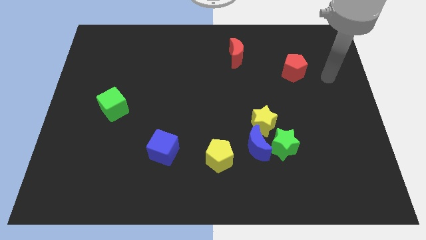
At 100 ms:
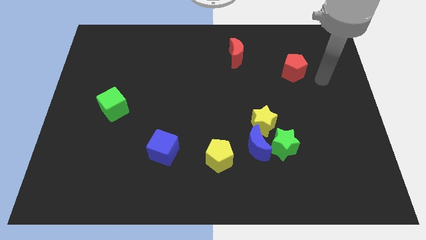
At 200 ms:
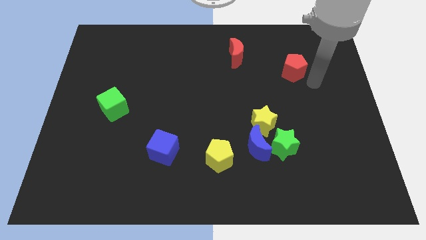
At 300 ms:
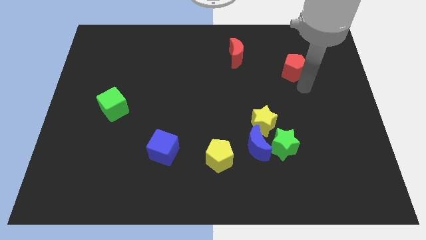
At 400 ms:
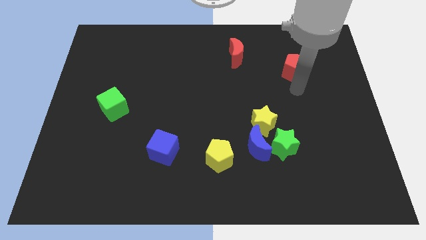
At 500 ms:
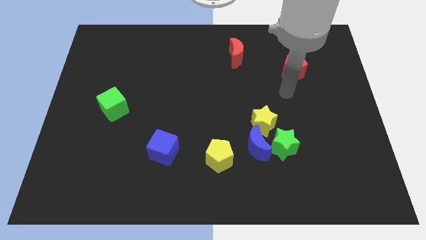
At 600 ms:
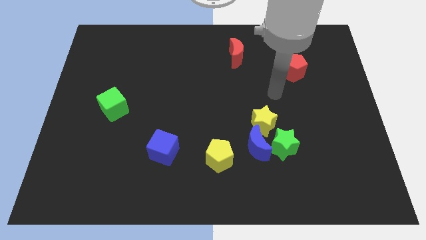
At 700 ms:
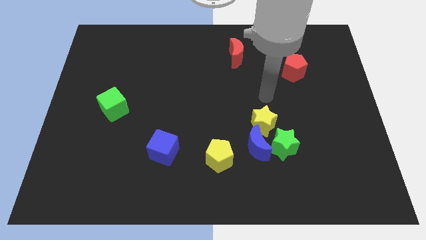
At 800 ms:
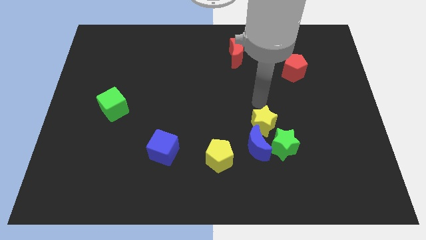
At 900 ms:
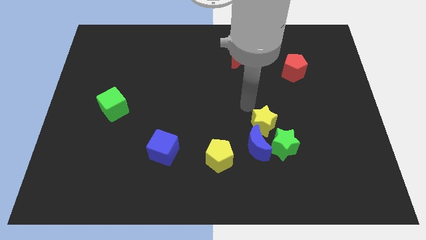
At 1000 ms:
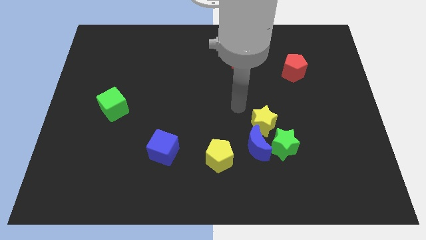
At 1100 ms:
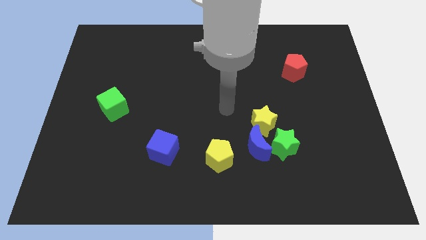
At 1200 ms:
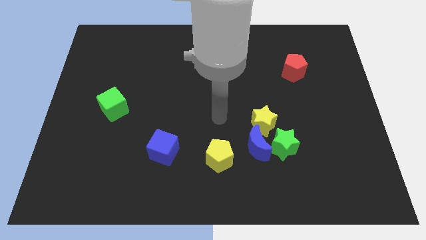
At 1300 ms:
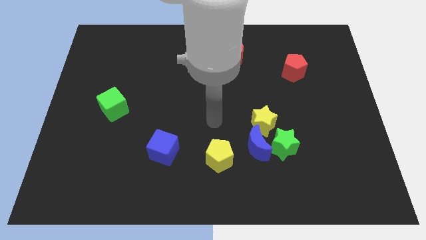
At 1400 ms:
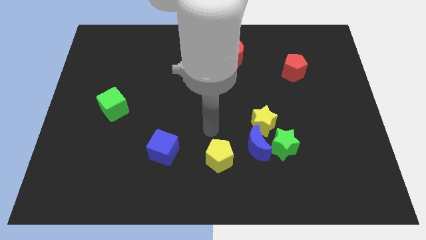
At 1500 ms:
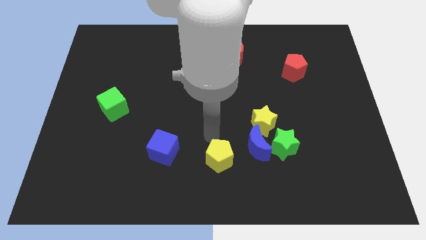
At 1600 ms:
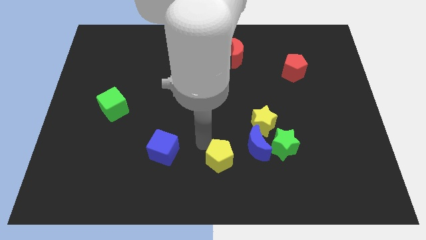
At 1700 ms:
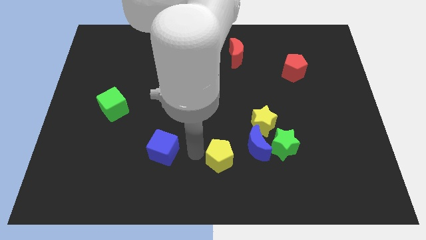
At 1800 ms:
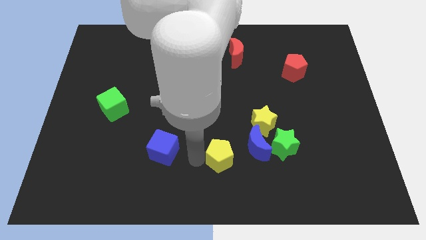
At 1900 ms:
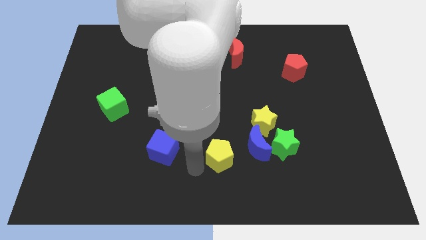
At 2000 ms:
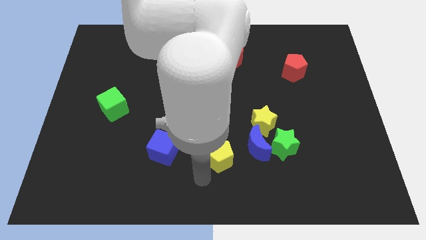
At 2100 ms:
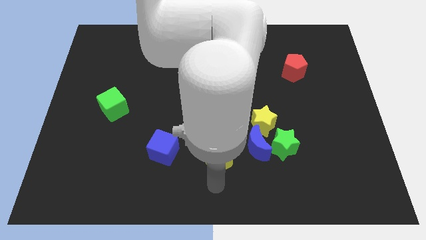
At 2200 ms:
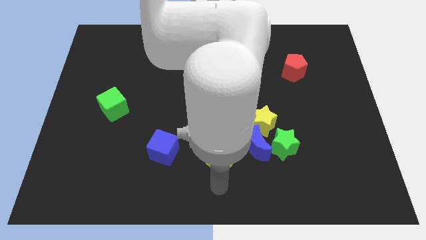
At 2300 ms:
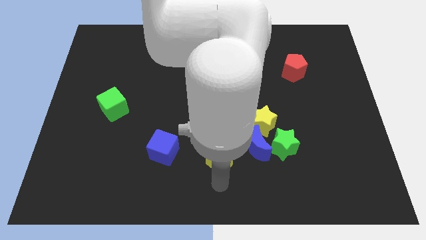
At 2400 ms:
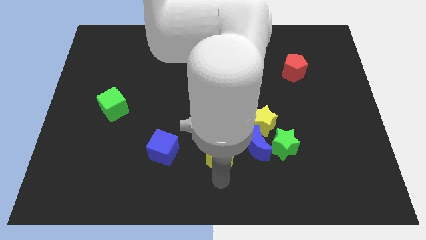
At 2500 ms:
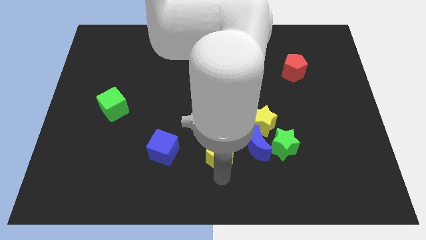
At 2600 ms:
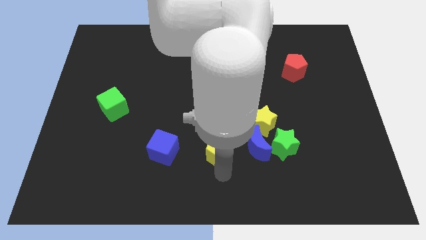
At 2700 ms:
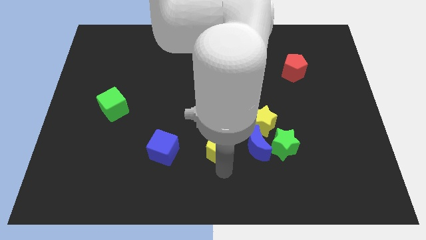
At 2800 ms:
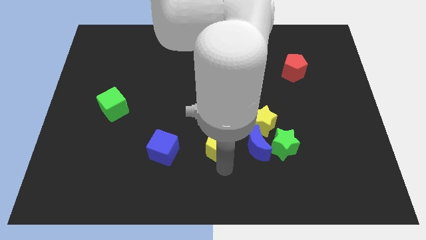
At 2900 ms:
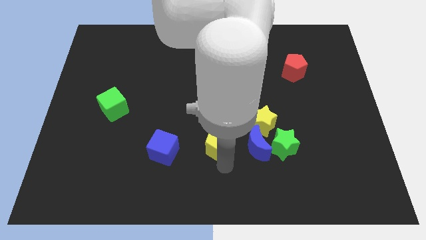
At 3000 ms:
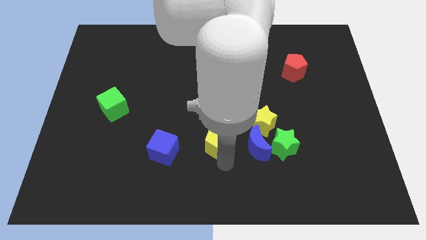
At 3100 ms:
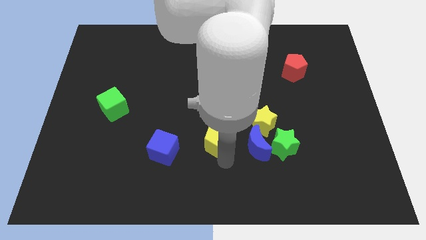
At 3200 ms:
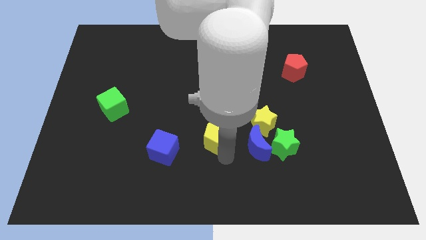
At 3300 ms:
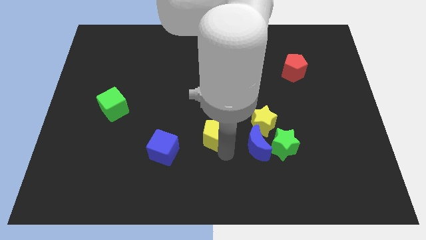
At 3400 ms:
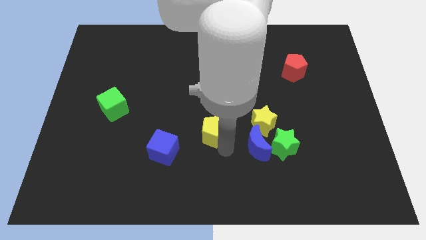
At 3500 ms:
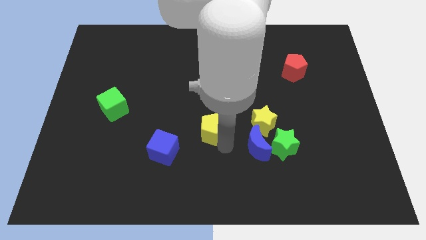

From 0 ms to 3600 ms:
move the yellow pentagon up a bit

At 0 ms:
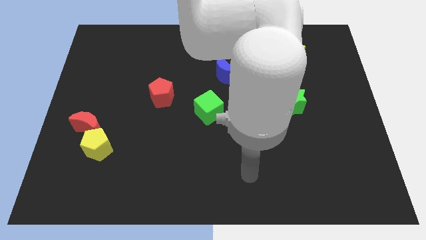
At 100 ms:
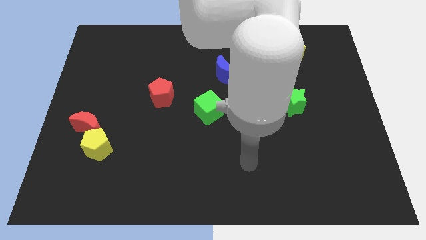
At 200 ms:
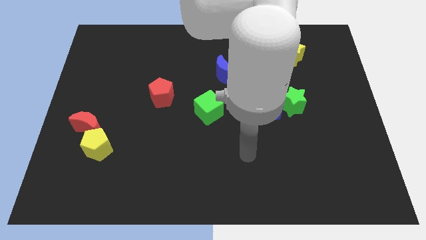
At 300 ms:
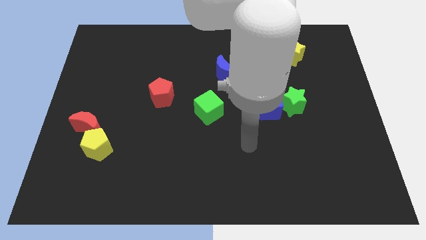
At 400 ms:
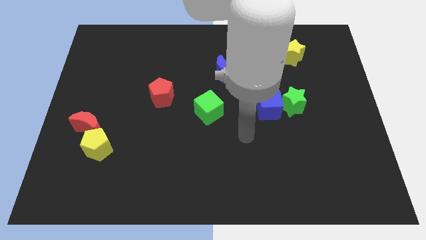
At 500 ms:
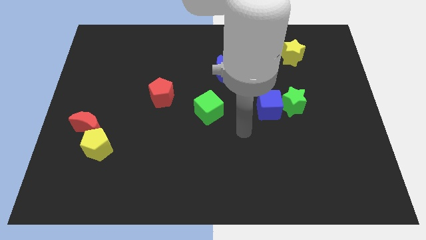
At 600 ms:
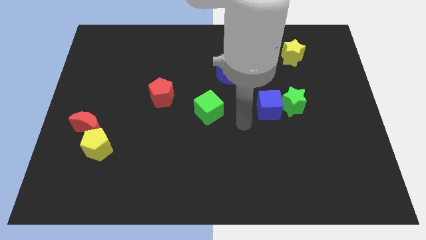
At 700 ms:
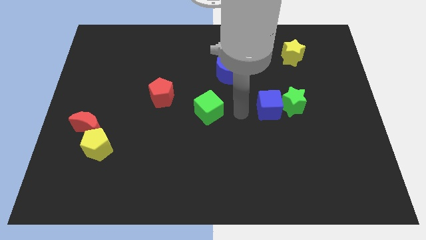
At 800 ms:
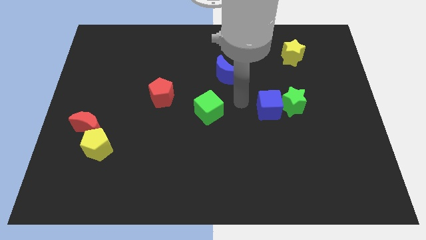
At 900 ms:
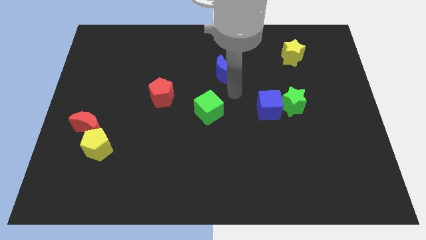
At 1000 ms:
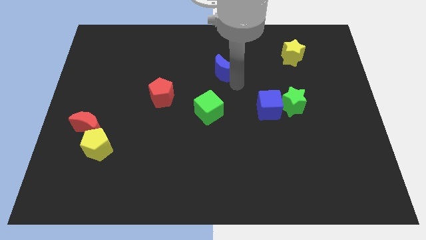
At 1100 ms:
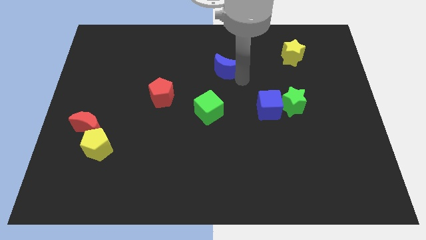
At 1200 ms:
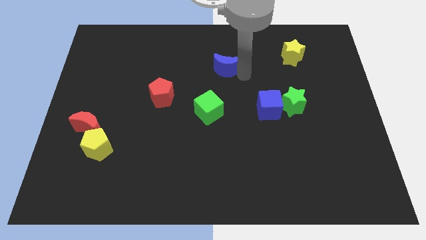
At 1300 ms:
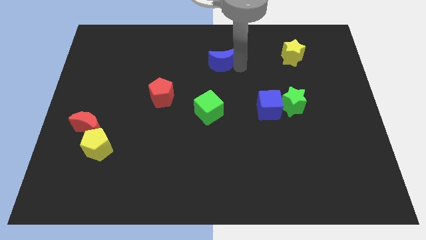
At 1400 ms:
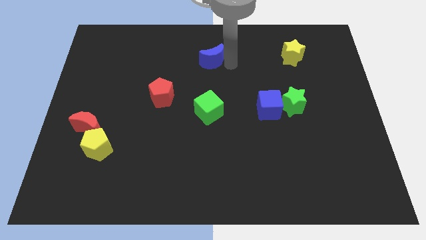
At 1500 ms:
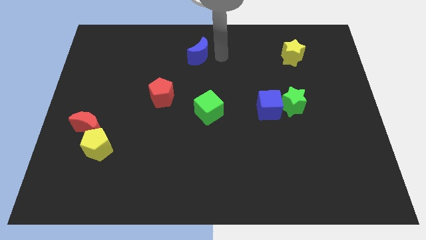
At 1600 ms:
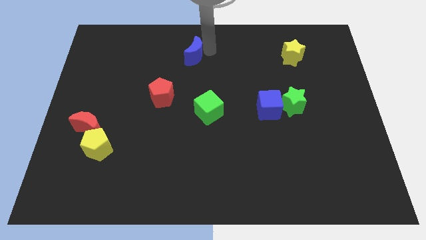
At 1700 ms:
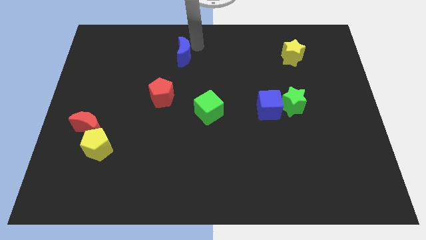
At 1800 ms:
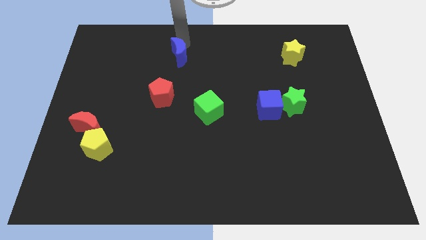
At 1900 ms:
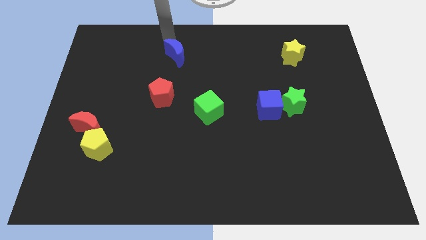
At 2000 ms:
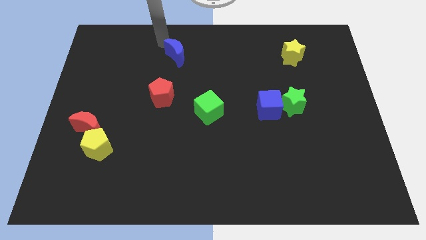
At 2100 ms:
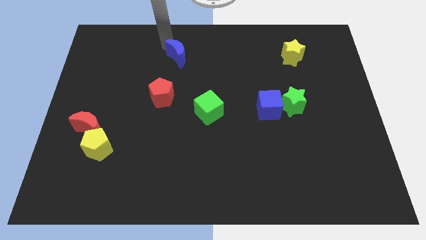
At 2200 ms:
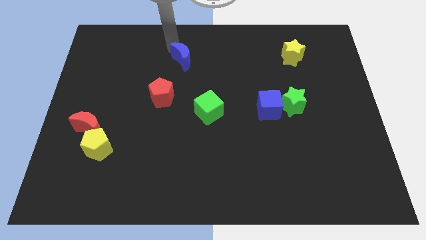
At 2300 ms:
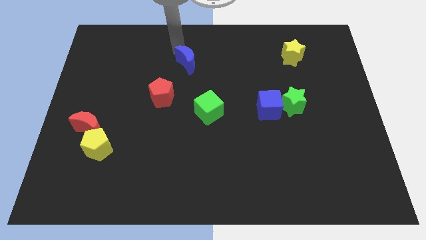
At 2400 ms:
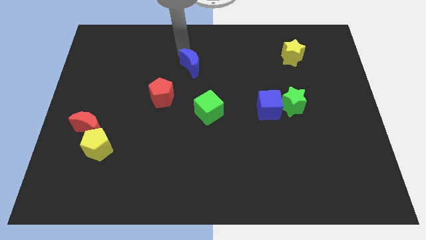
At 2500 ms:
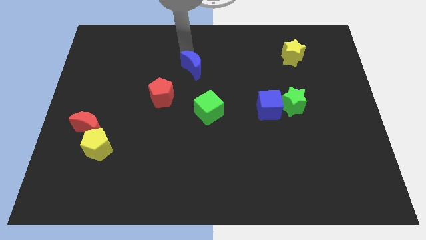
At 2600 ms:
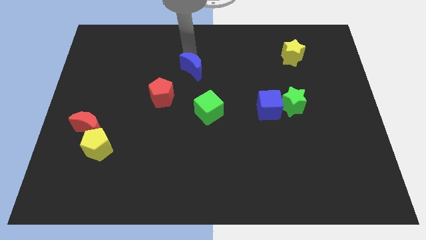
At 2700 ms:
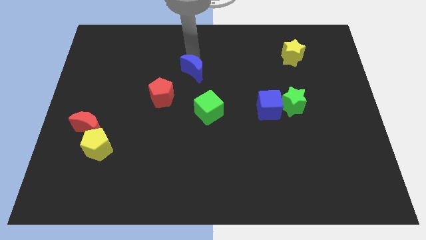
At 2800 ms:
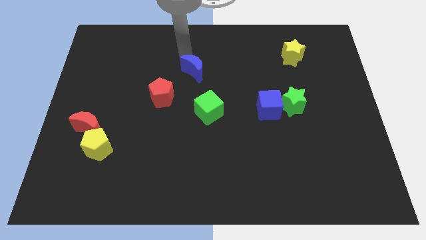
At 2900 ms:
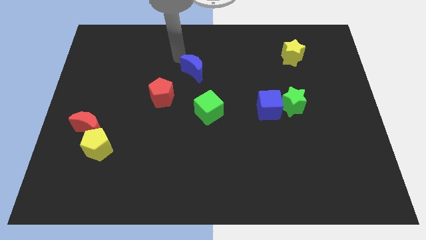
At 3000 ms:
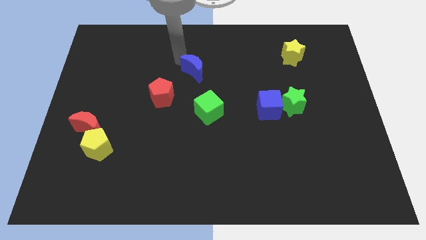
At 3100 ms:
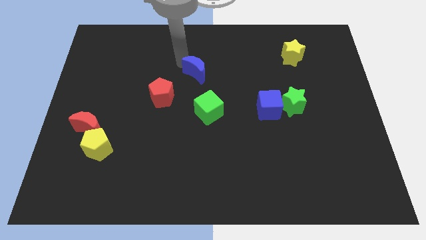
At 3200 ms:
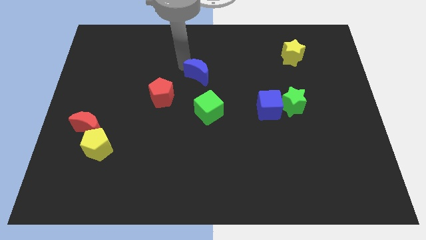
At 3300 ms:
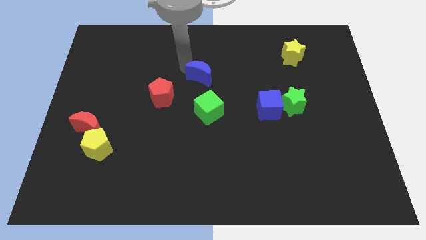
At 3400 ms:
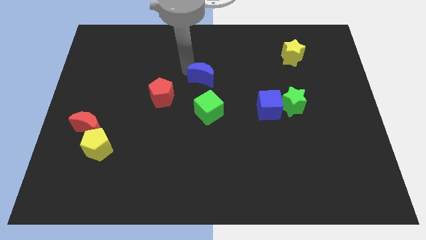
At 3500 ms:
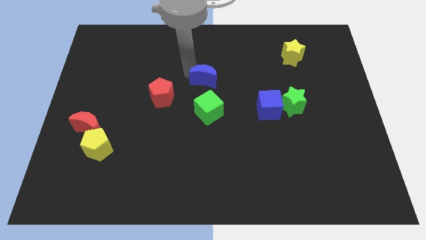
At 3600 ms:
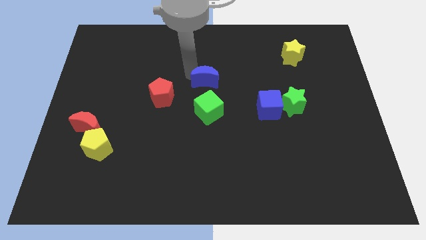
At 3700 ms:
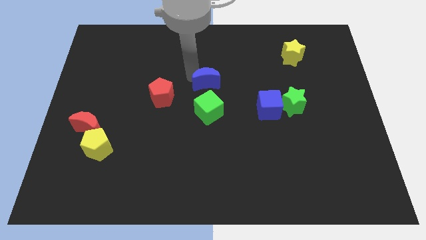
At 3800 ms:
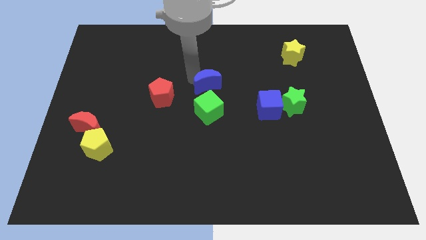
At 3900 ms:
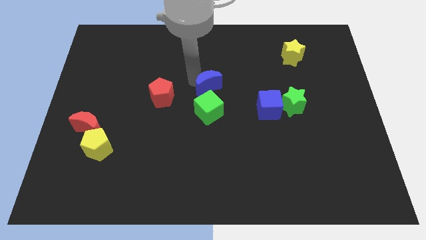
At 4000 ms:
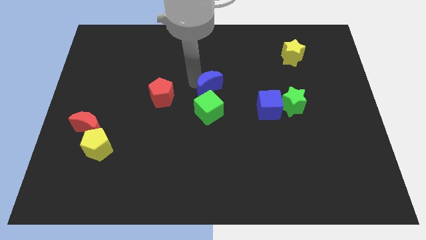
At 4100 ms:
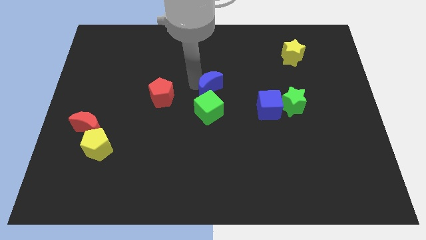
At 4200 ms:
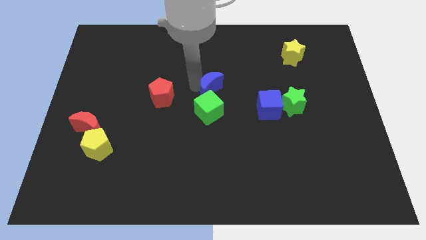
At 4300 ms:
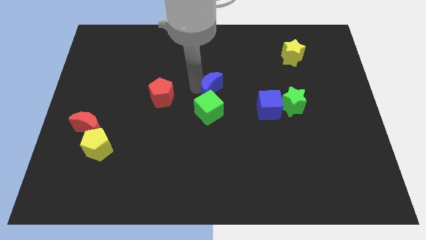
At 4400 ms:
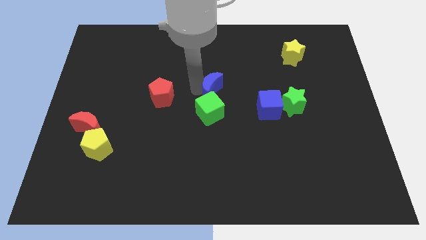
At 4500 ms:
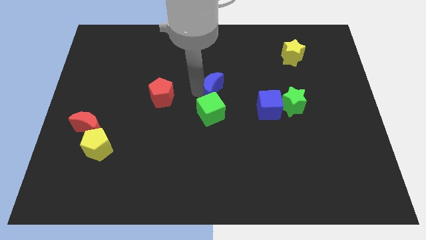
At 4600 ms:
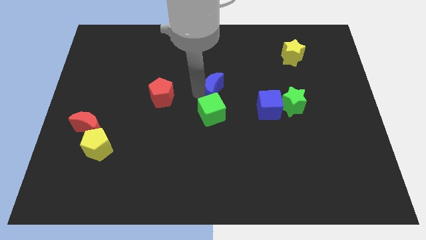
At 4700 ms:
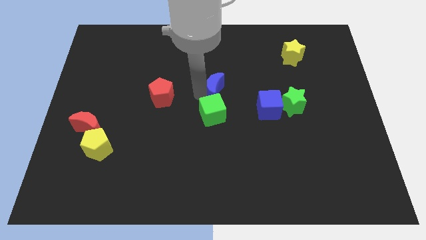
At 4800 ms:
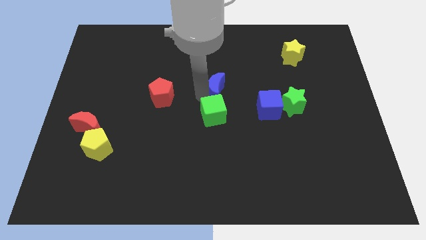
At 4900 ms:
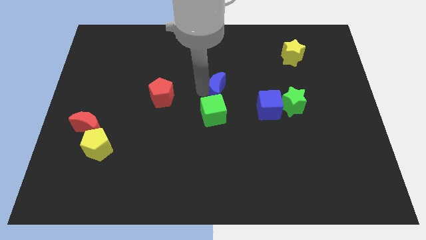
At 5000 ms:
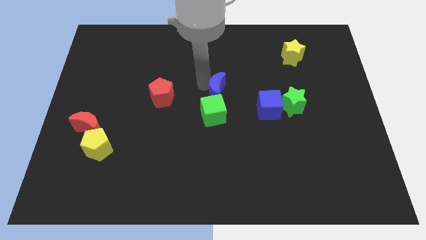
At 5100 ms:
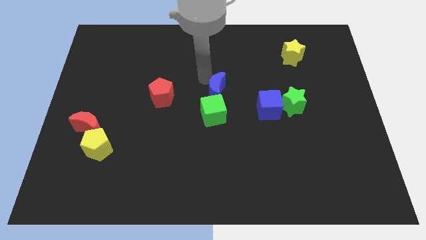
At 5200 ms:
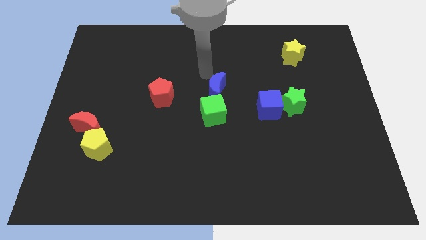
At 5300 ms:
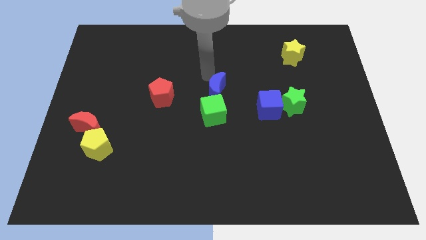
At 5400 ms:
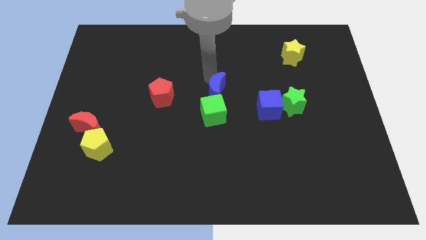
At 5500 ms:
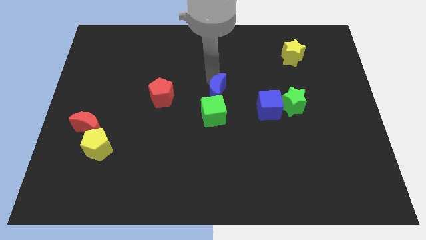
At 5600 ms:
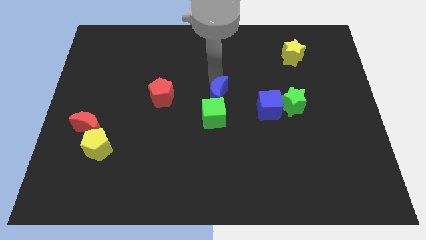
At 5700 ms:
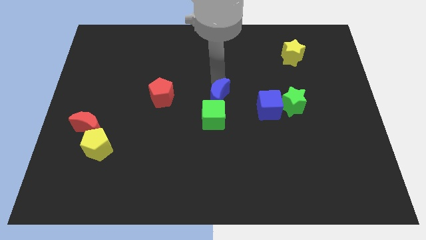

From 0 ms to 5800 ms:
slightly slide the blue moon down
